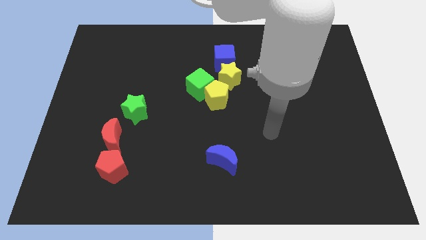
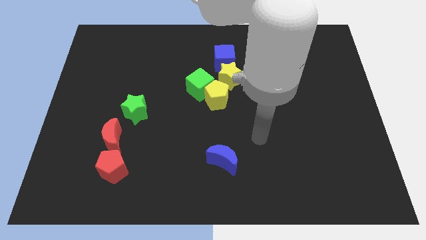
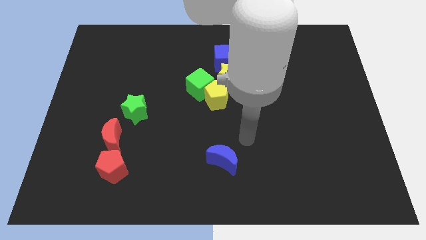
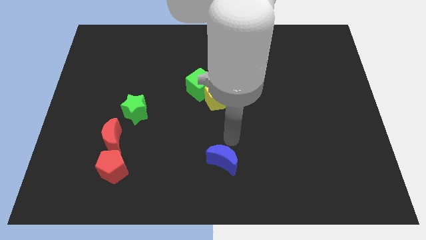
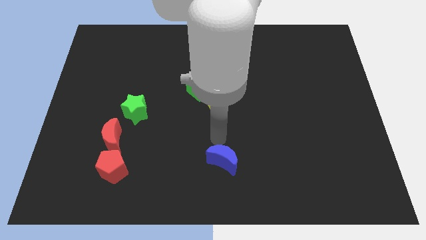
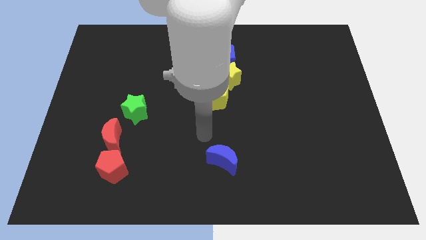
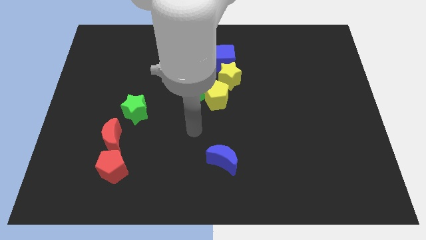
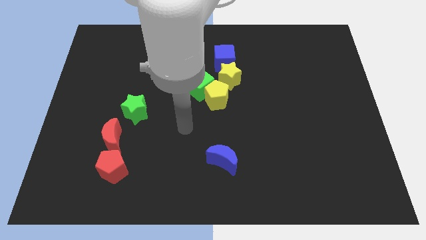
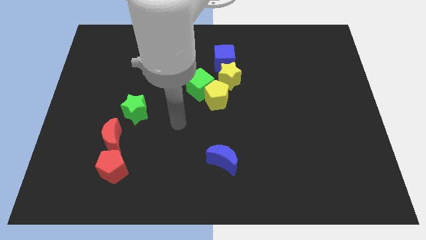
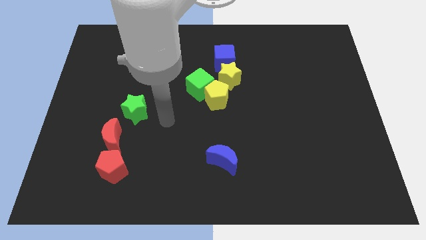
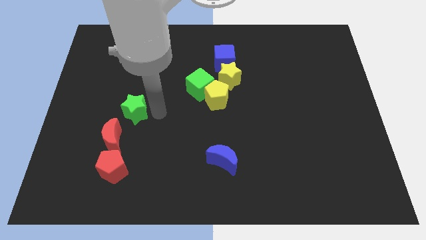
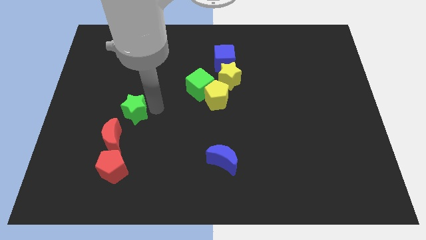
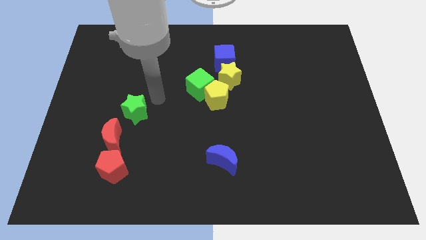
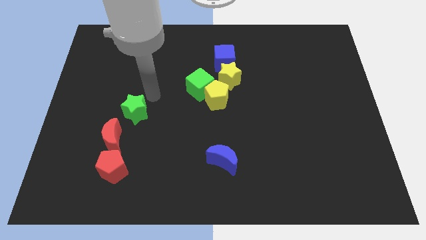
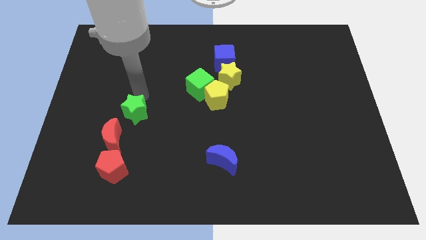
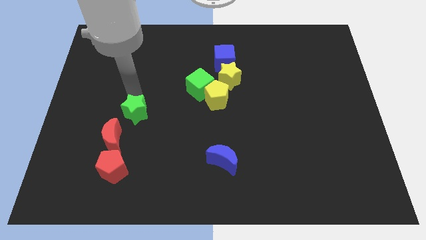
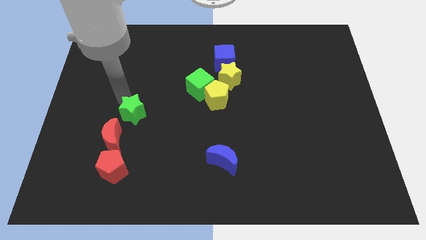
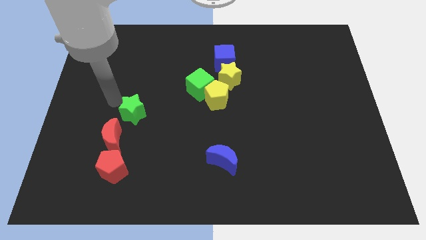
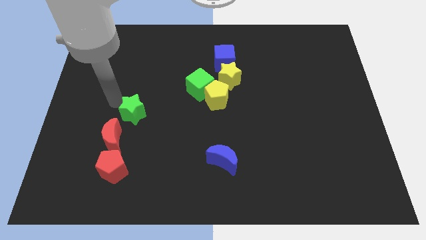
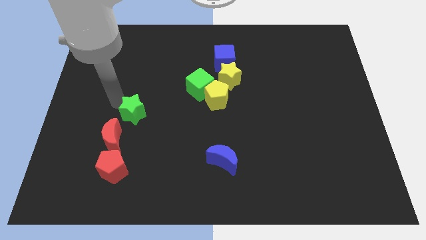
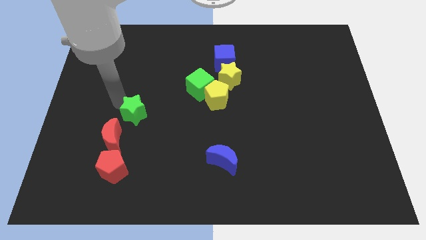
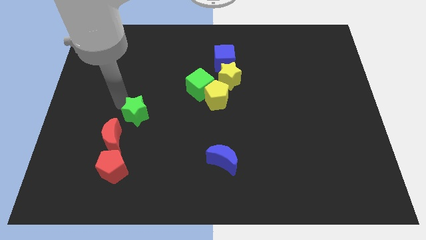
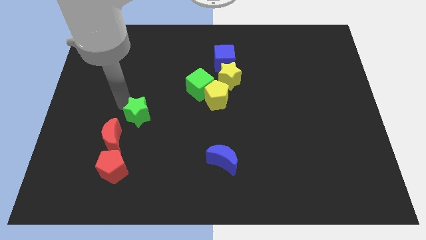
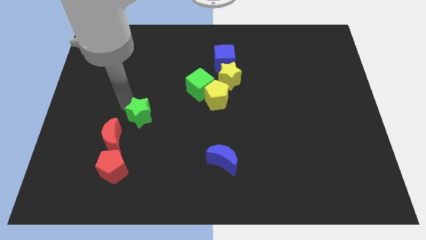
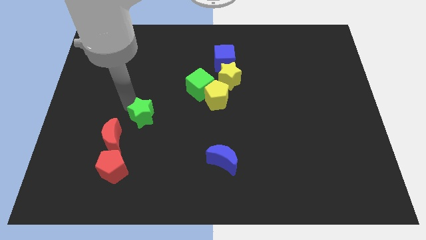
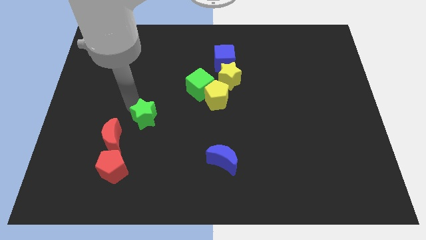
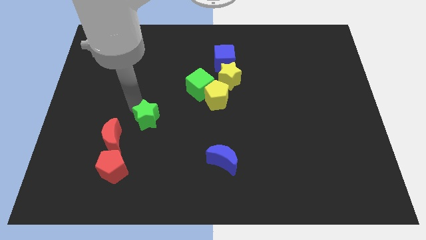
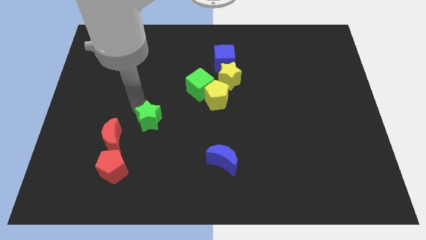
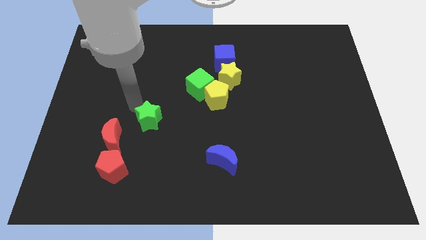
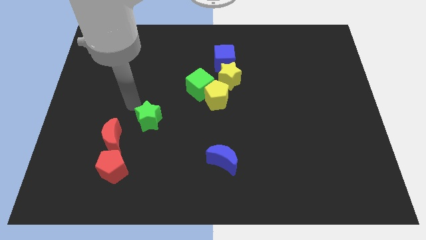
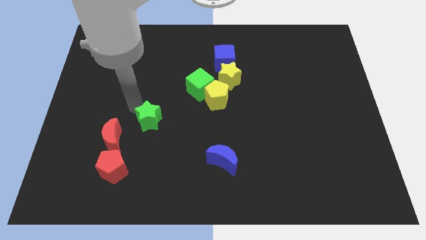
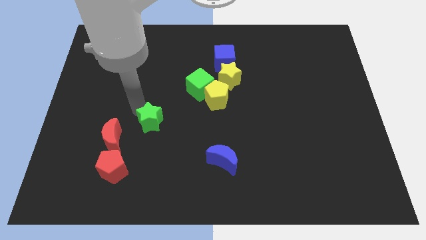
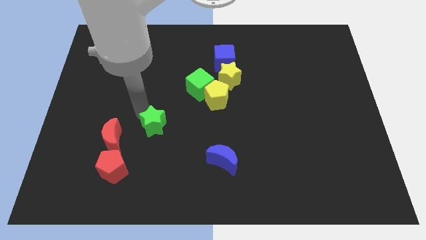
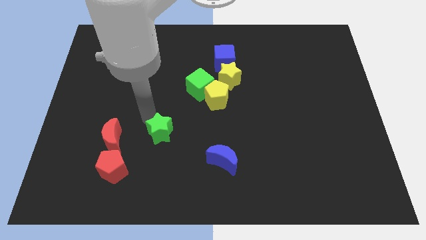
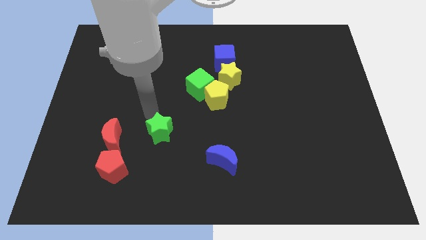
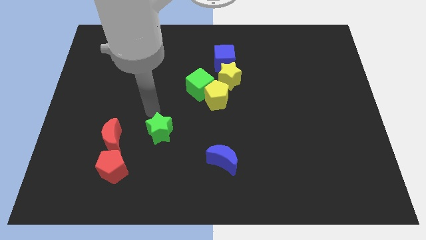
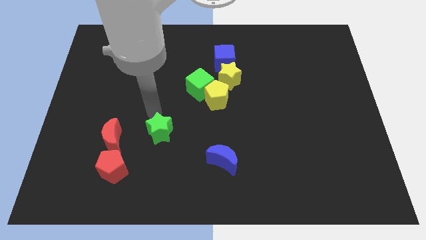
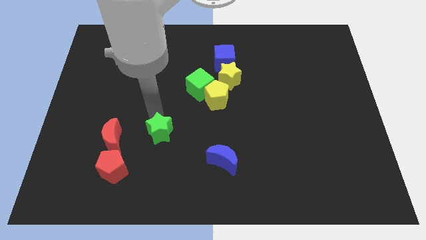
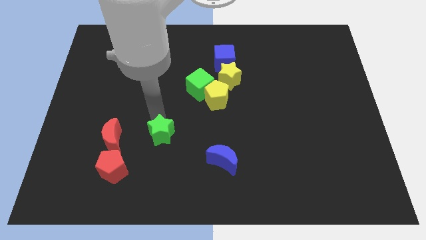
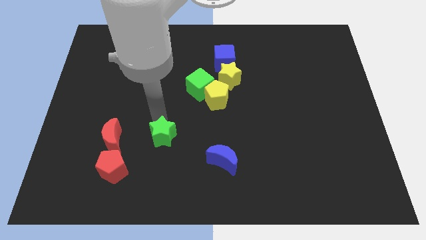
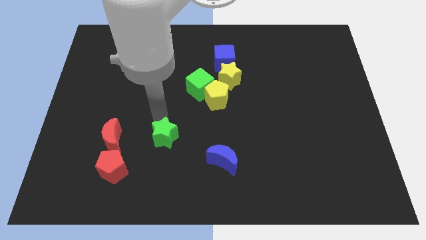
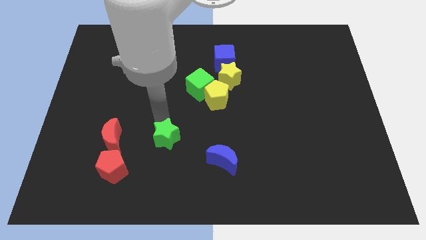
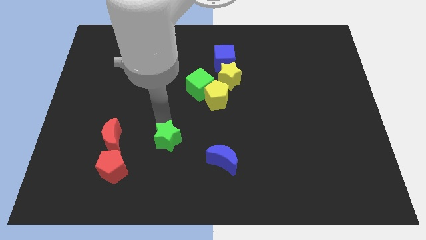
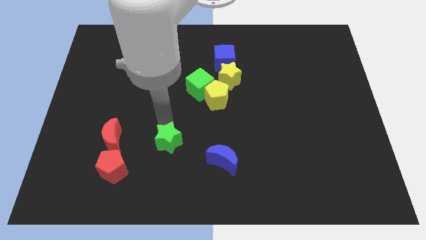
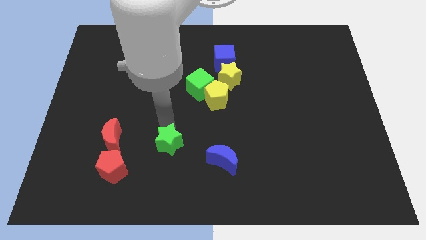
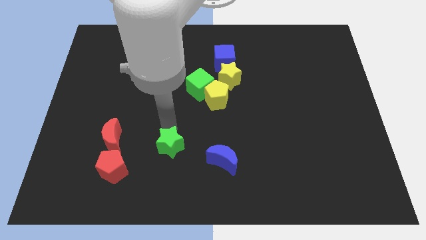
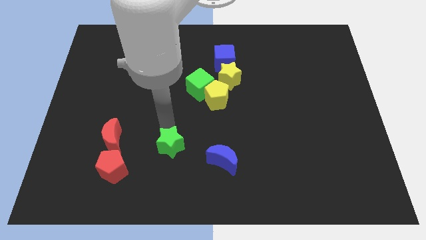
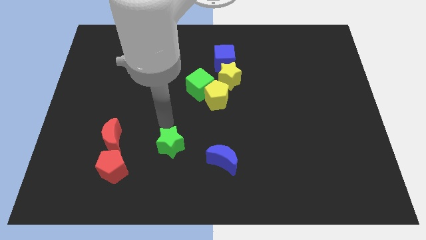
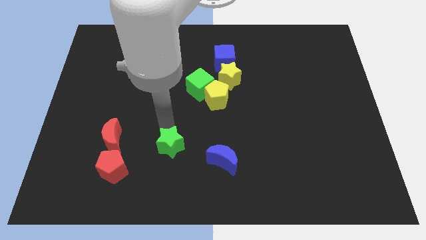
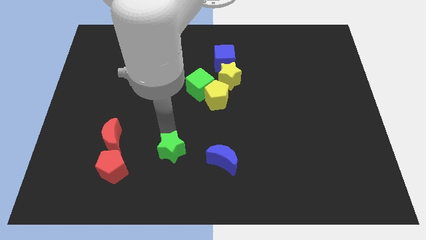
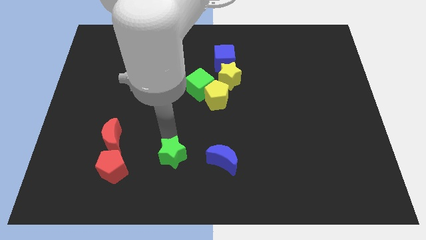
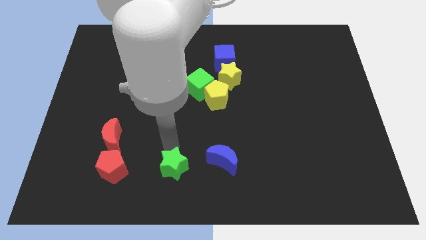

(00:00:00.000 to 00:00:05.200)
put the green star to the bottom

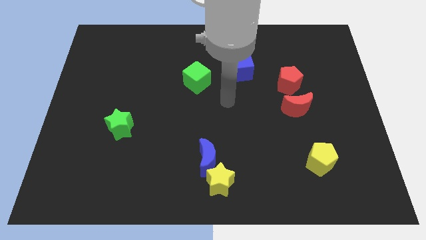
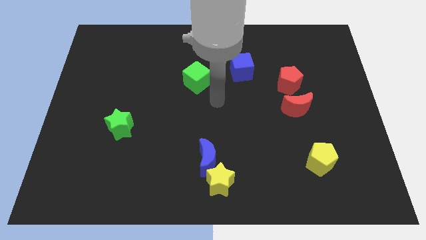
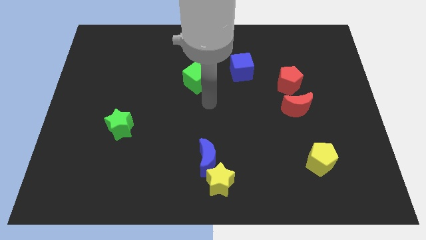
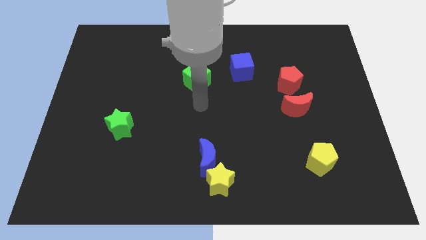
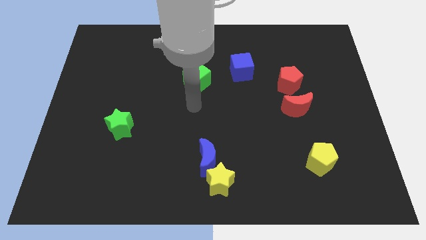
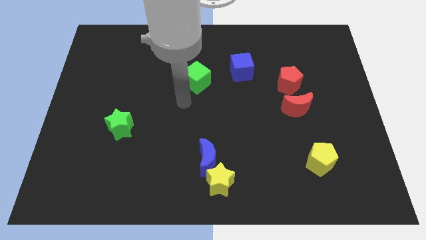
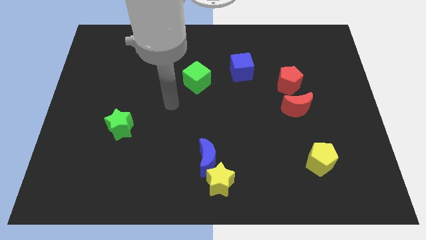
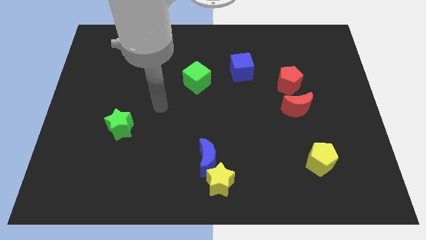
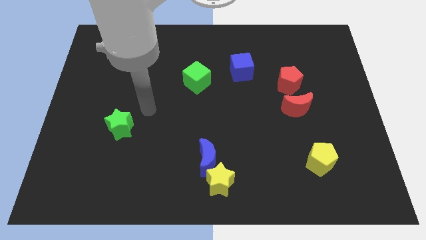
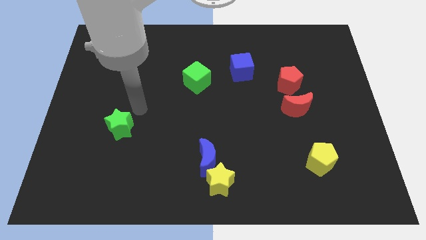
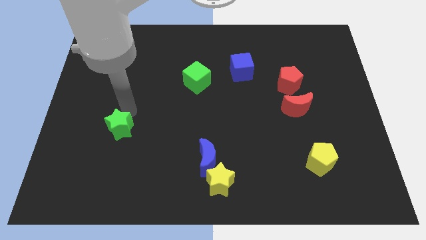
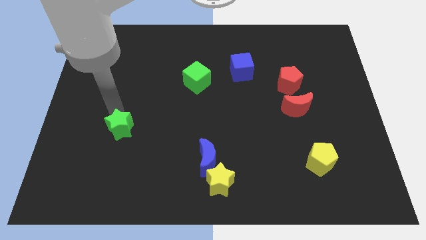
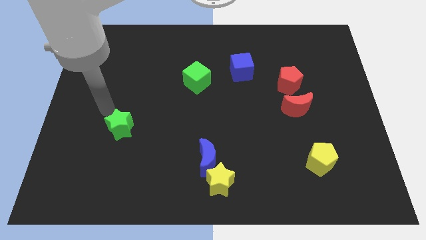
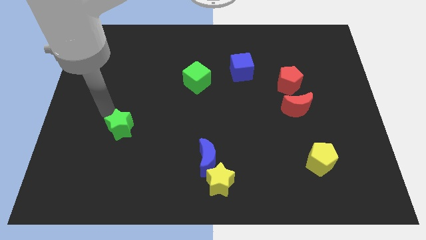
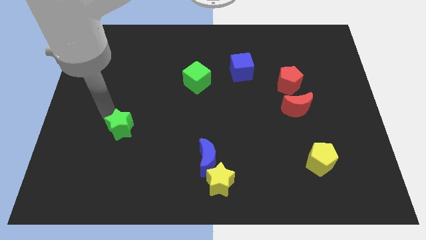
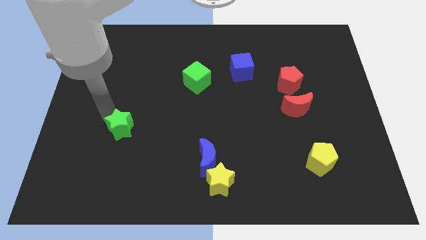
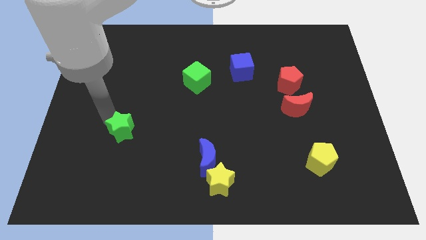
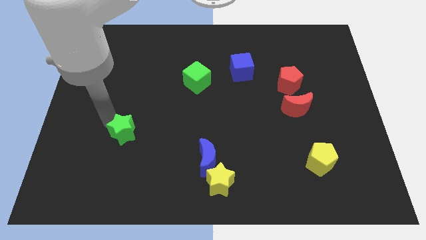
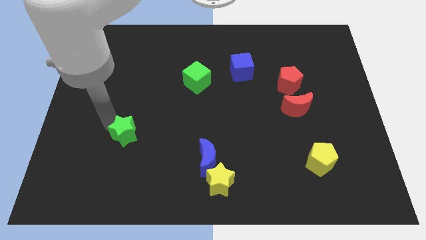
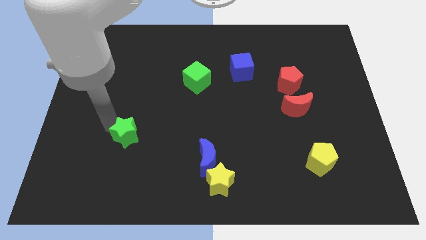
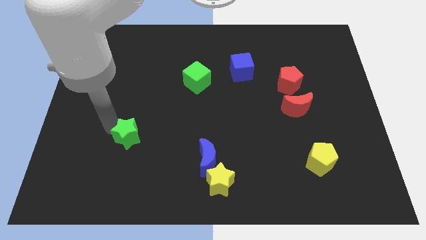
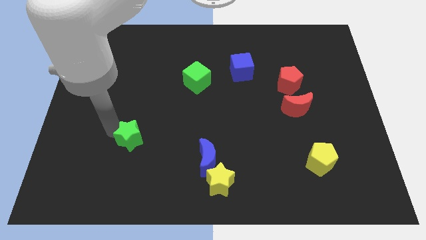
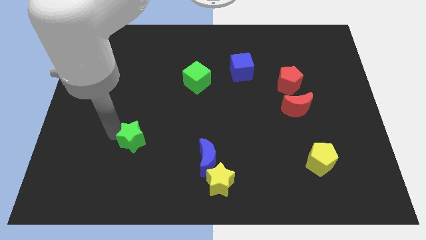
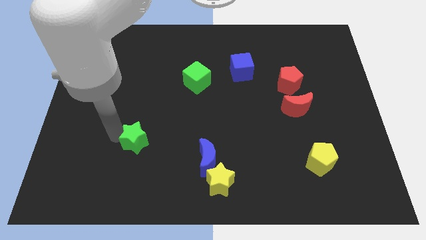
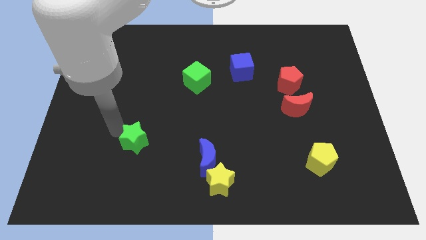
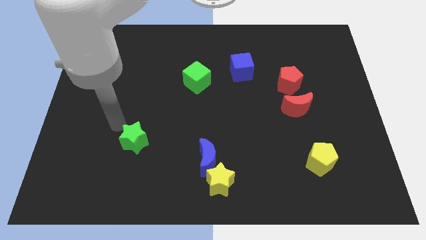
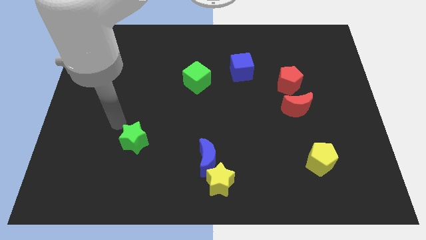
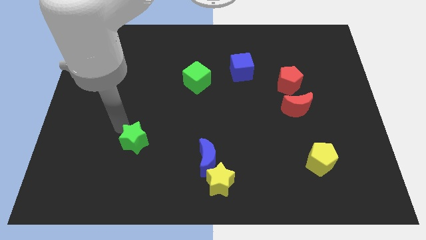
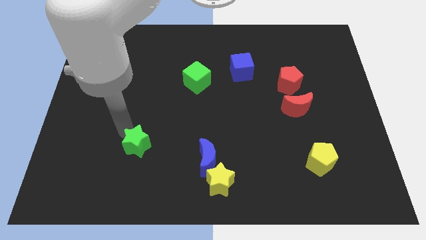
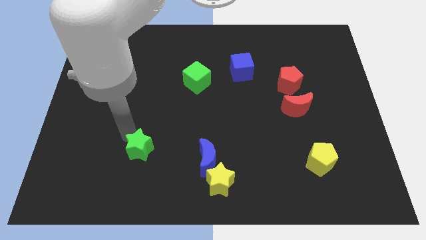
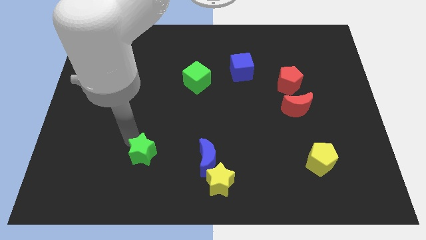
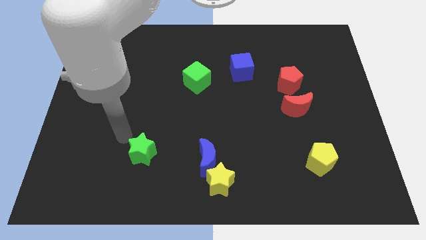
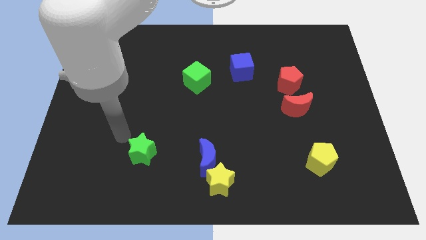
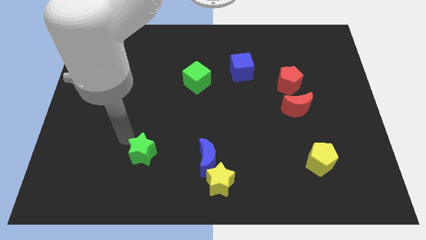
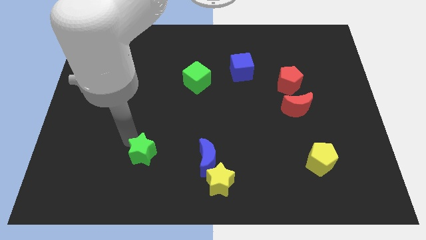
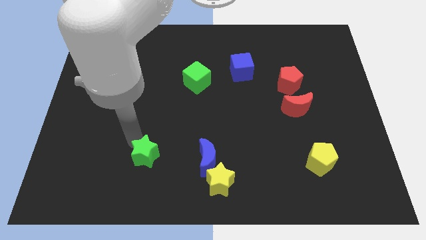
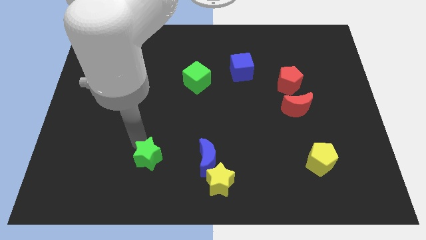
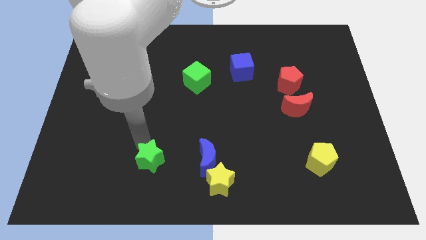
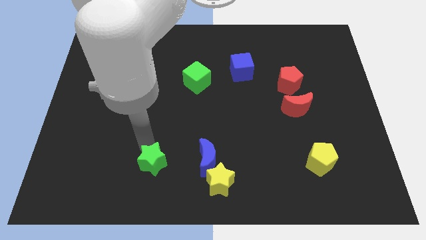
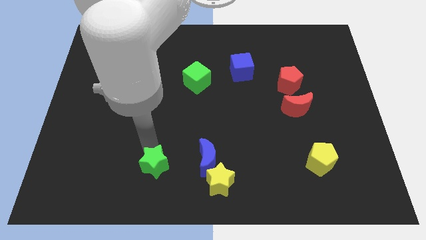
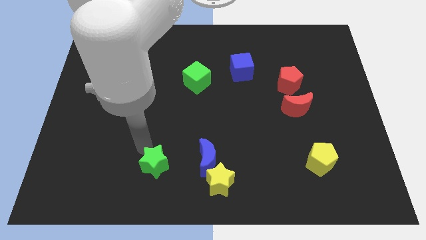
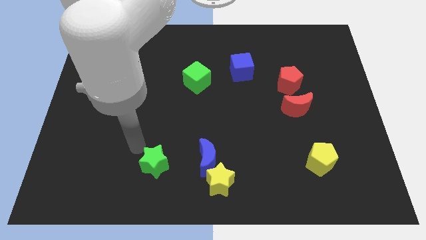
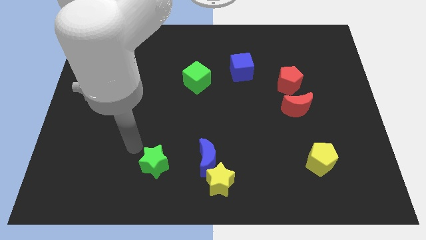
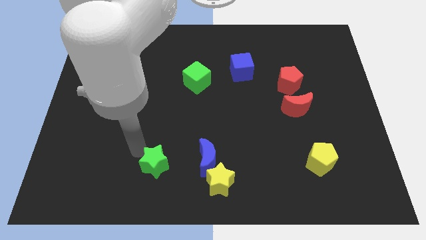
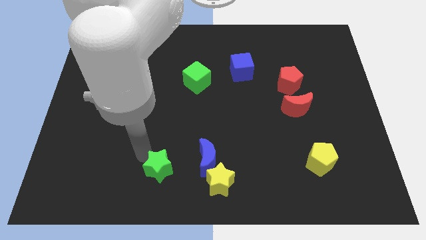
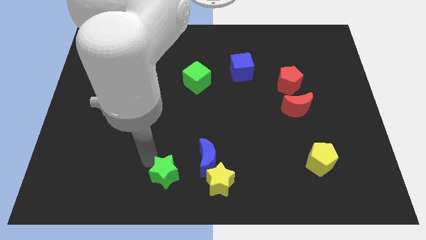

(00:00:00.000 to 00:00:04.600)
put the green star to the bottom side
